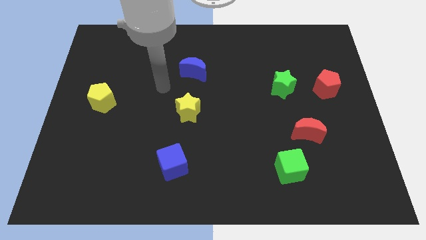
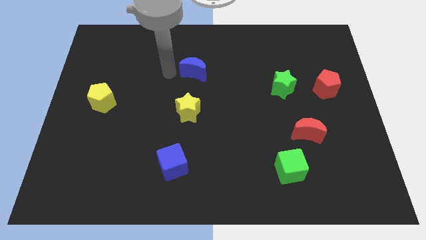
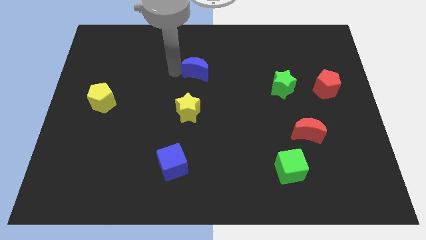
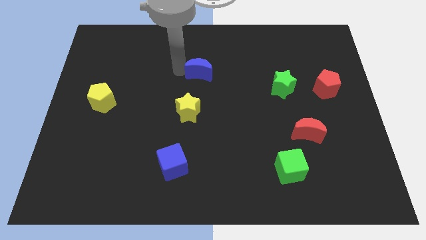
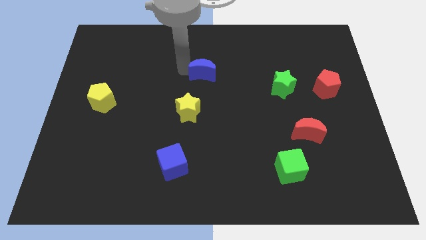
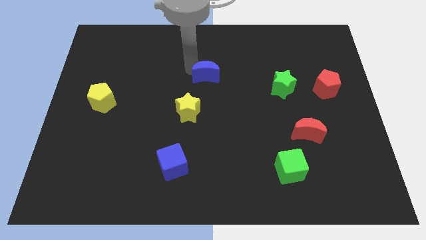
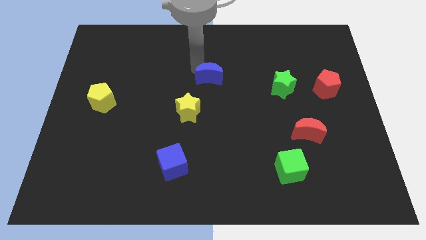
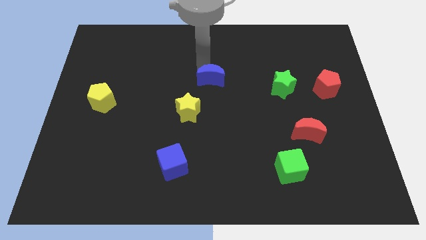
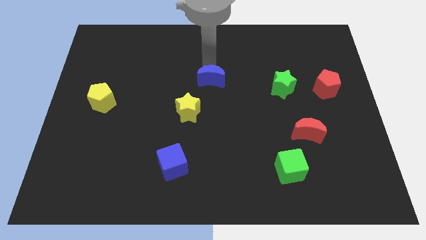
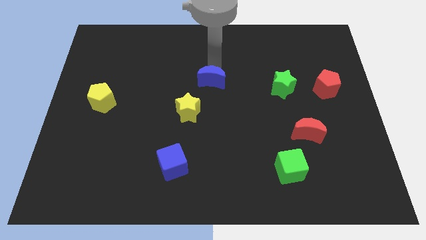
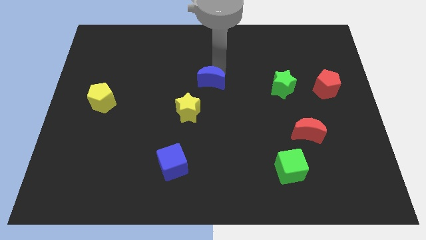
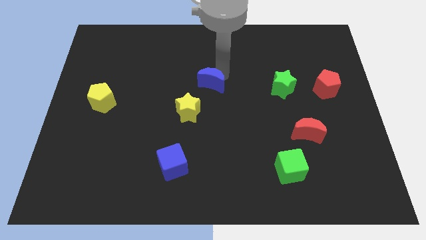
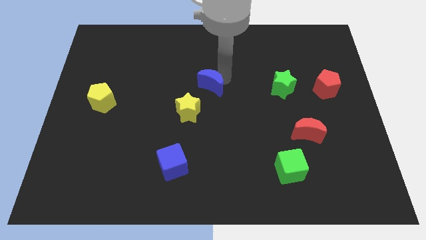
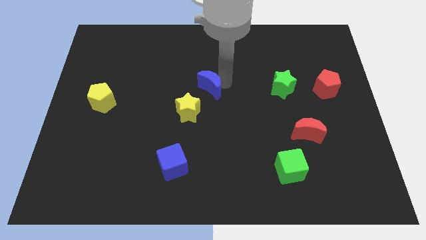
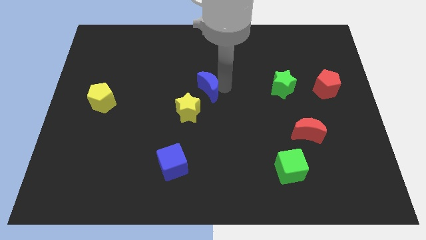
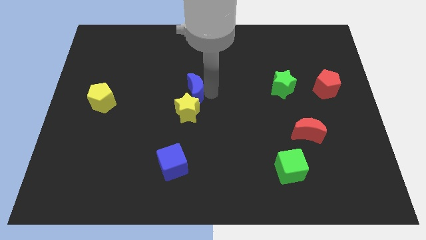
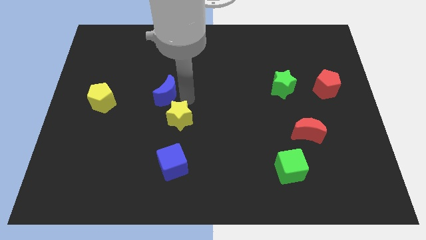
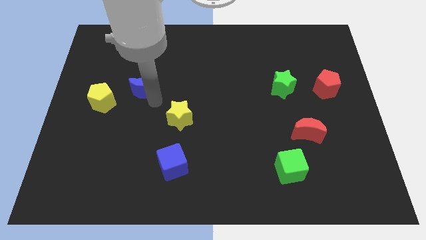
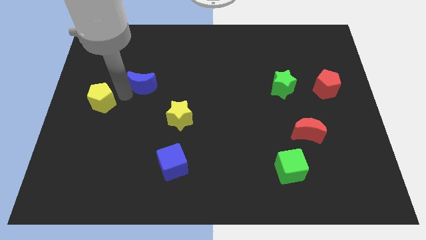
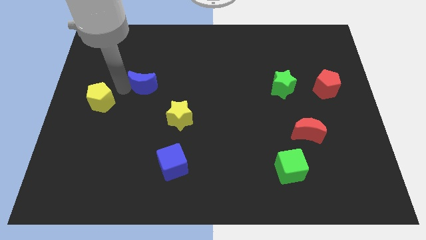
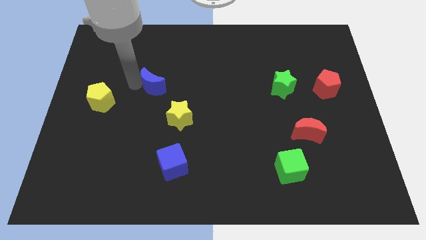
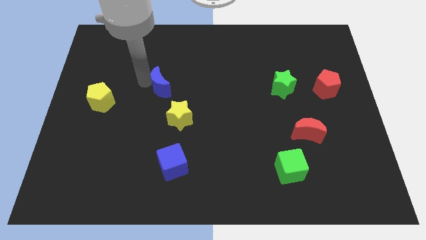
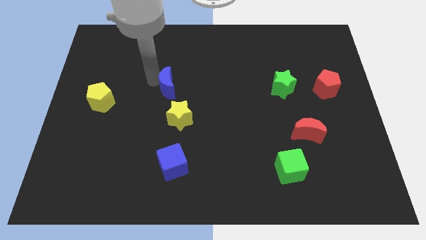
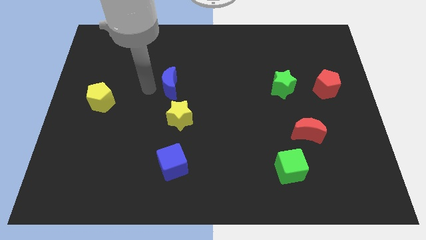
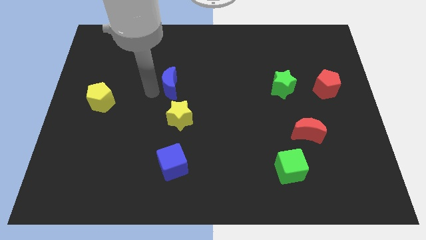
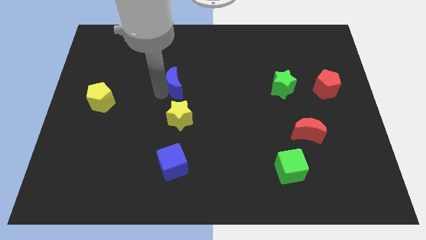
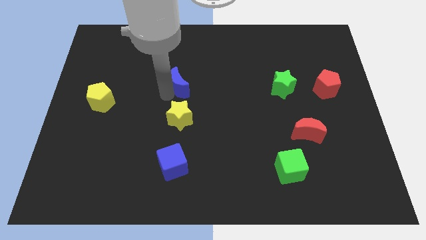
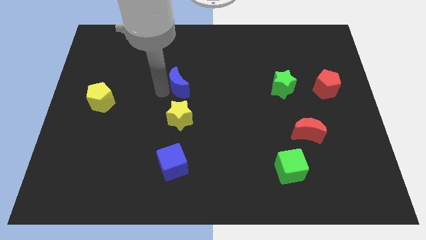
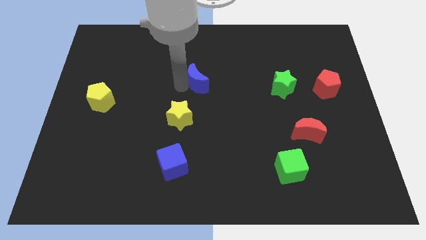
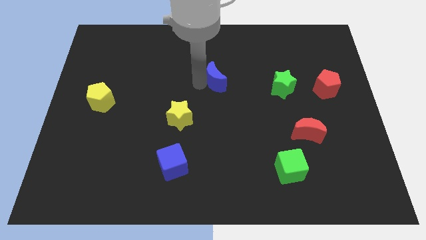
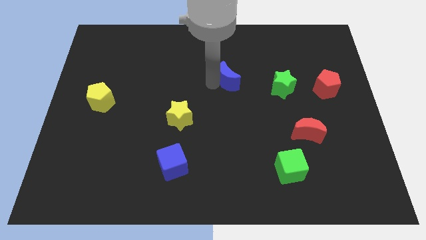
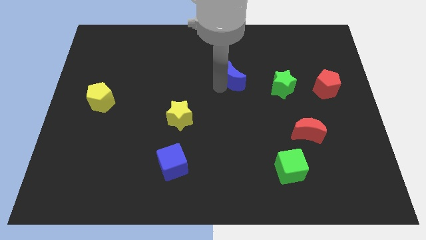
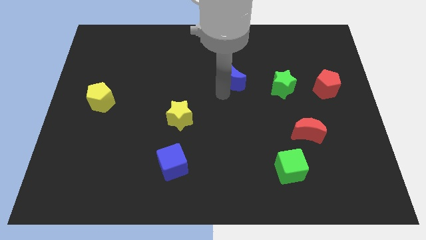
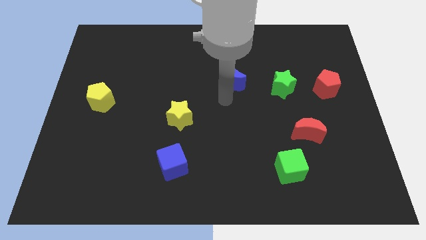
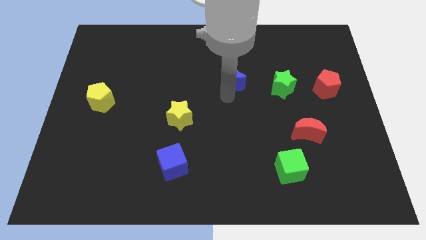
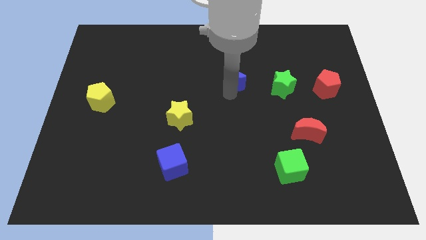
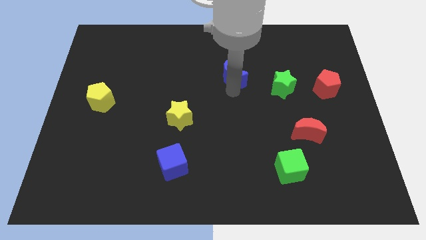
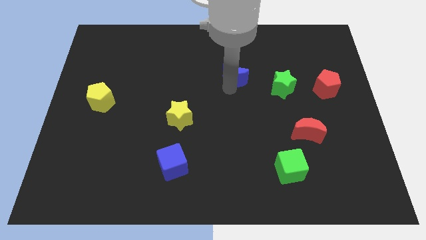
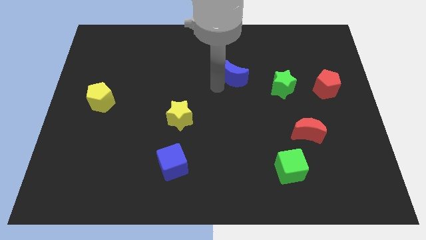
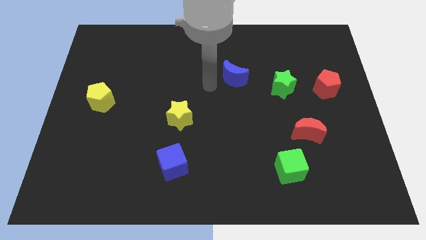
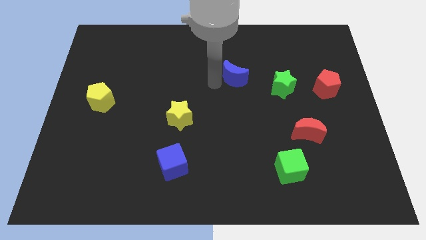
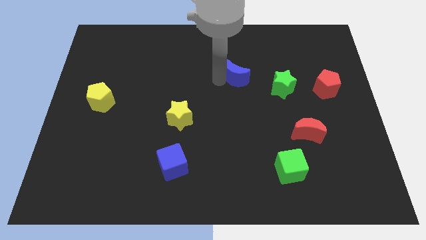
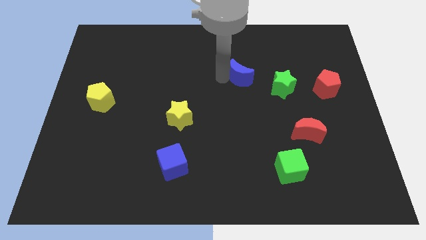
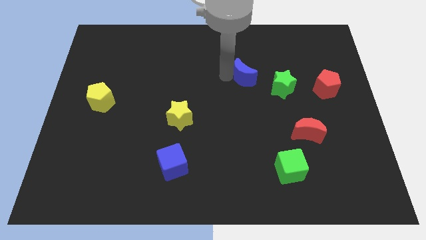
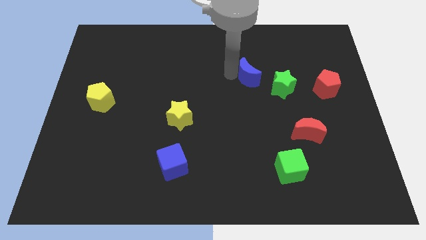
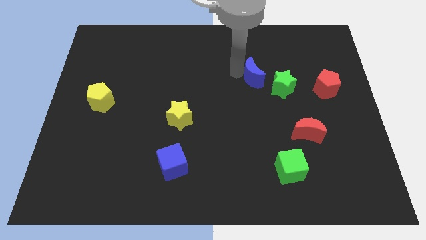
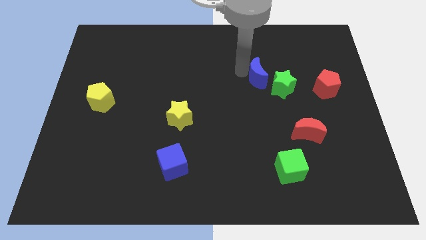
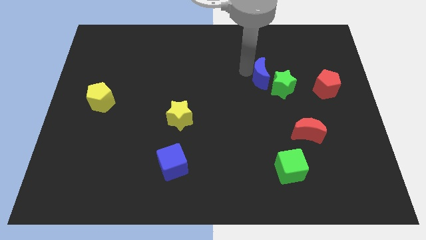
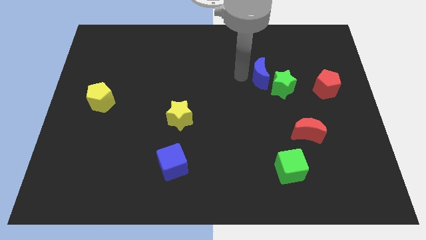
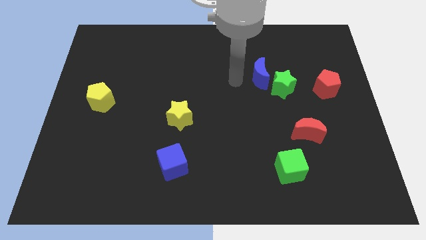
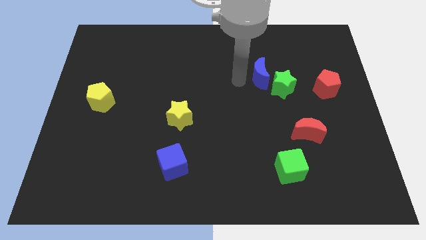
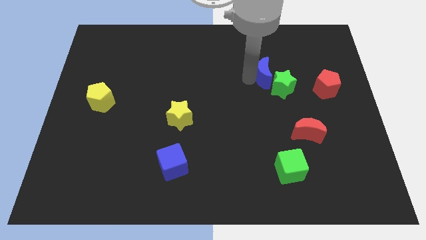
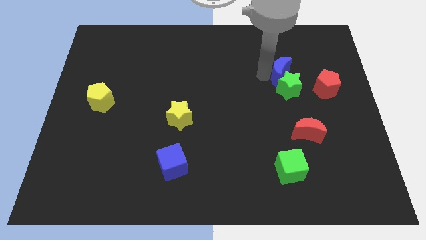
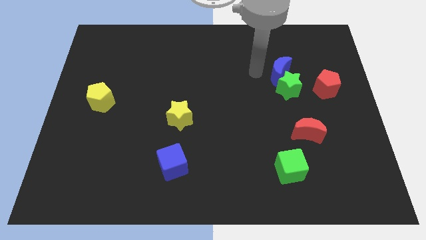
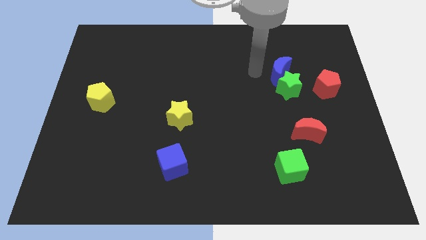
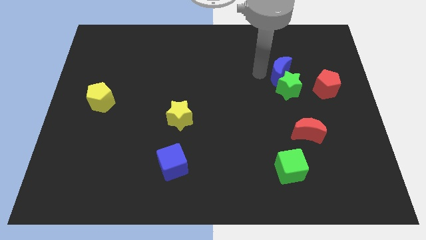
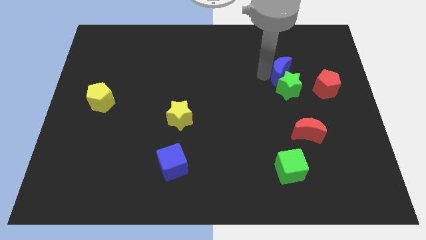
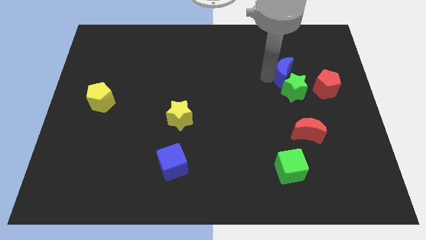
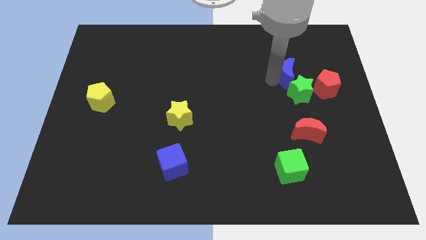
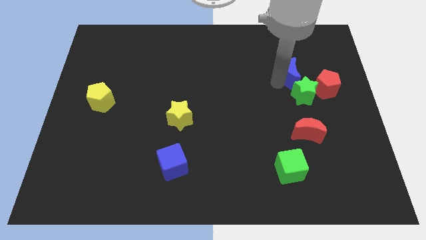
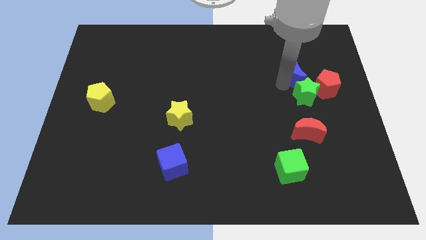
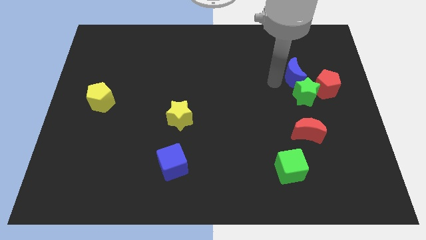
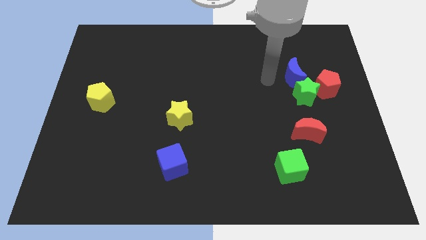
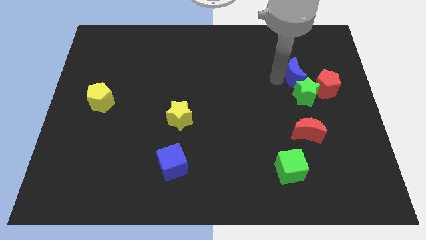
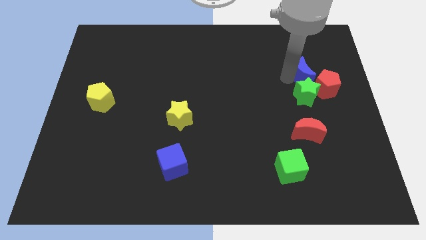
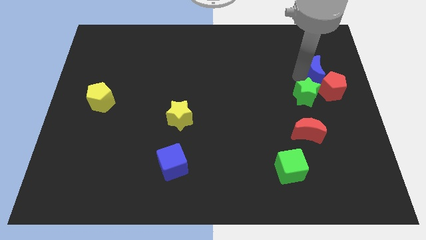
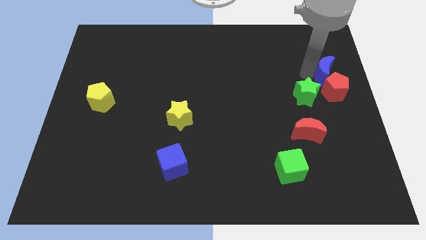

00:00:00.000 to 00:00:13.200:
put the blue moon to the right side of the board

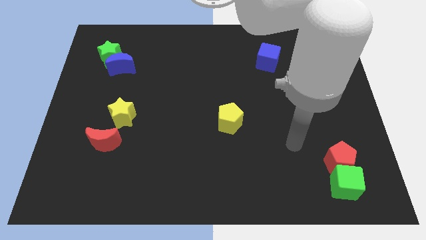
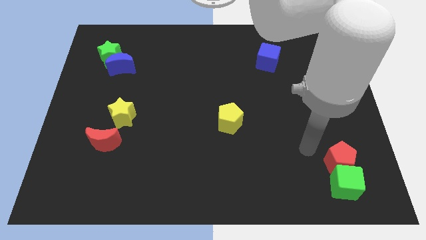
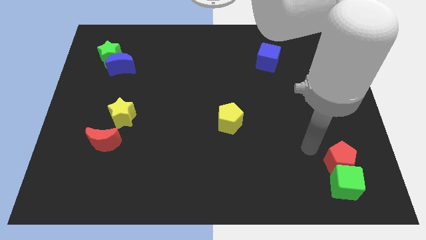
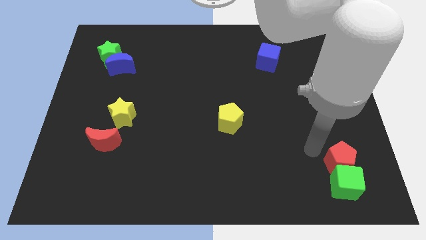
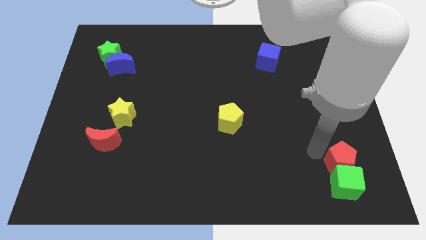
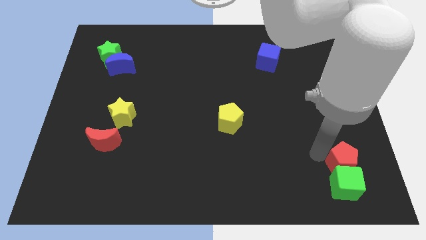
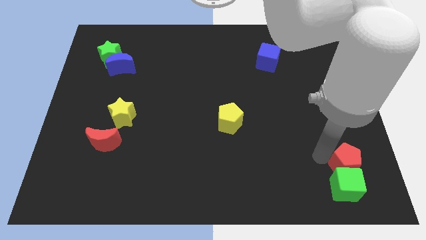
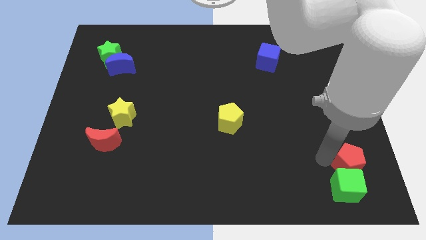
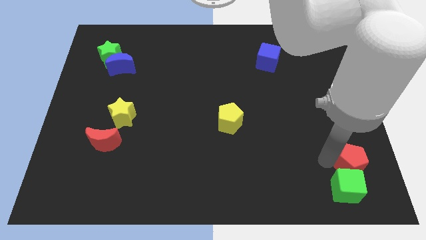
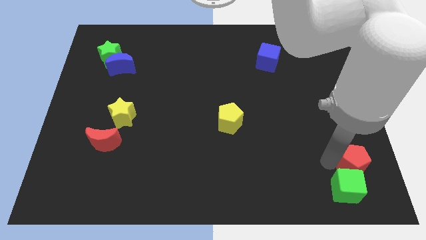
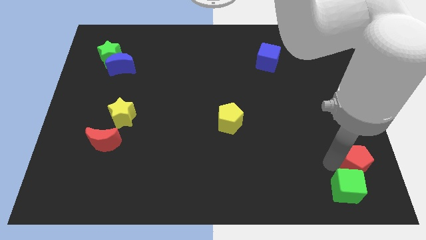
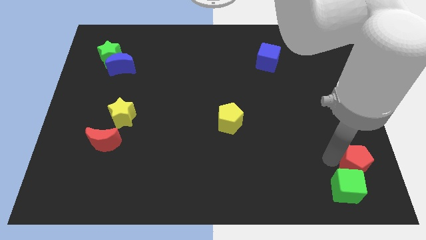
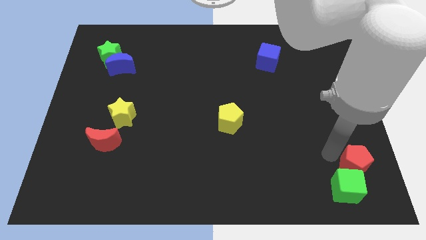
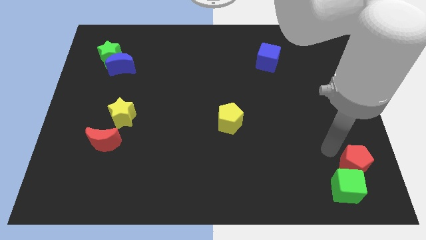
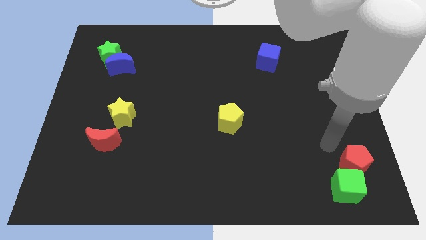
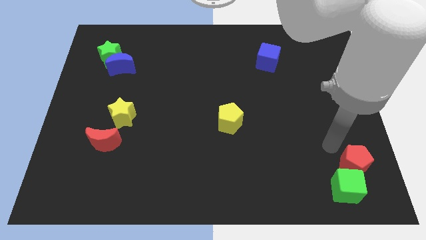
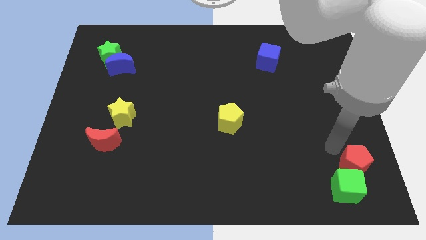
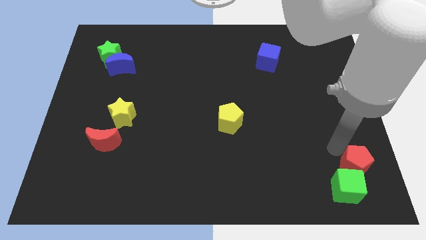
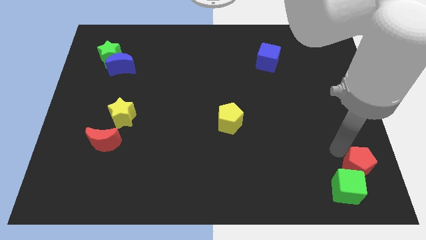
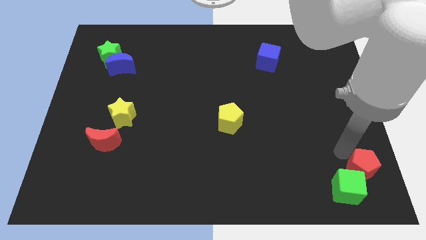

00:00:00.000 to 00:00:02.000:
move the red pentagon to the bottom right of the board
